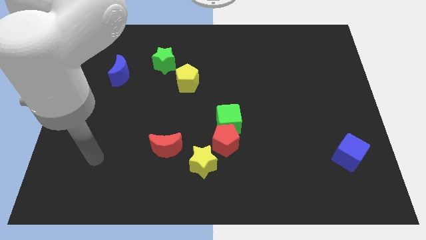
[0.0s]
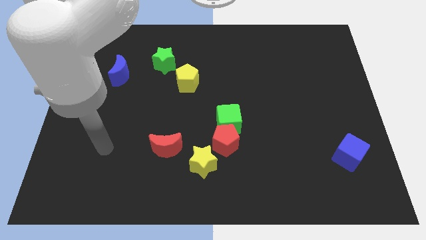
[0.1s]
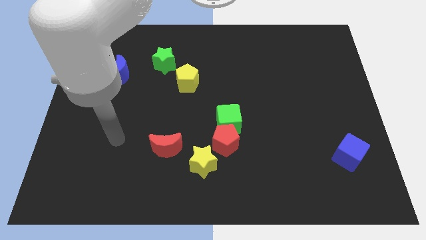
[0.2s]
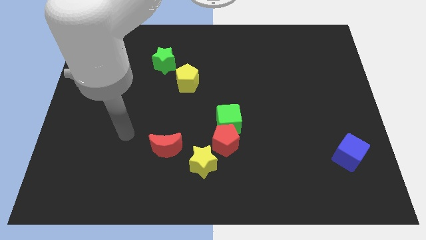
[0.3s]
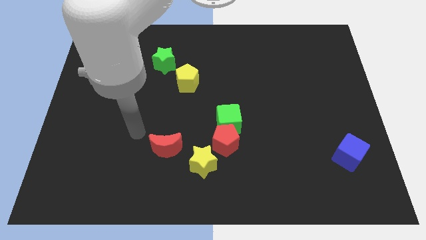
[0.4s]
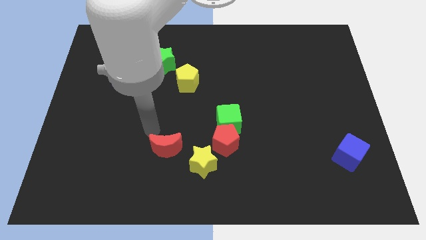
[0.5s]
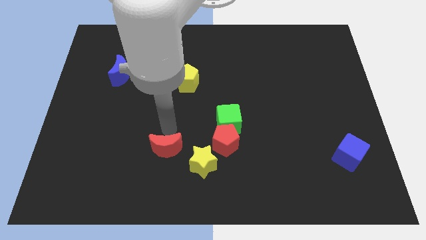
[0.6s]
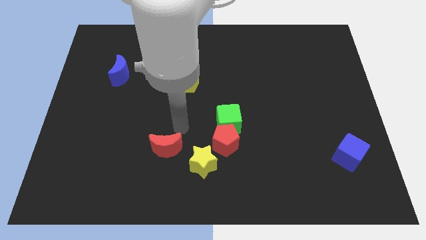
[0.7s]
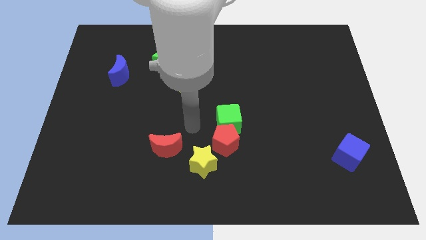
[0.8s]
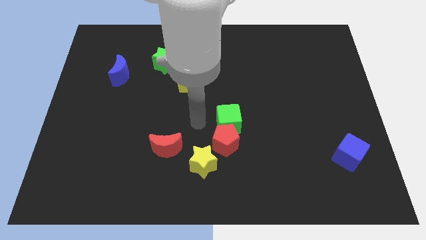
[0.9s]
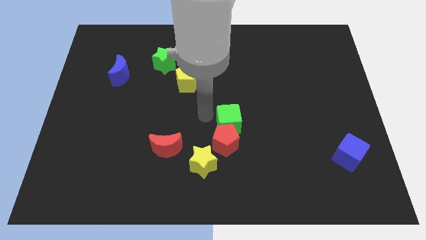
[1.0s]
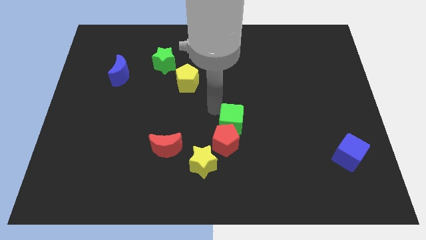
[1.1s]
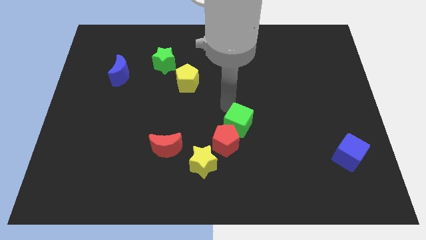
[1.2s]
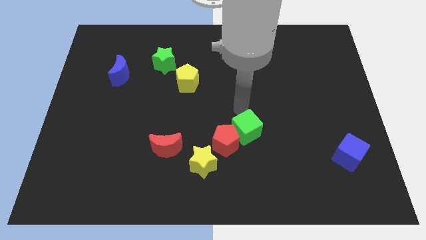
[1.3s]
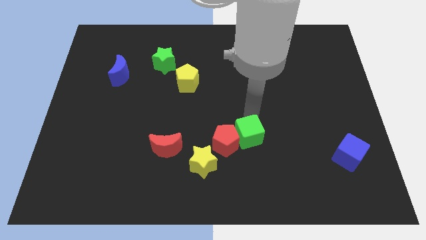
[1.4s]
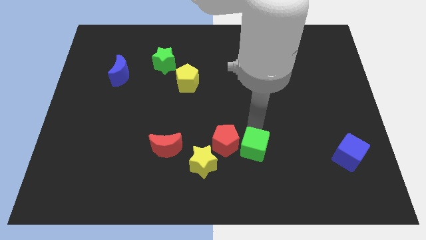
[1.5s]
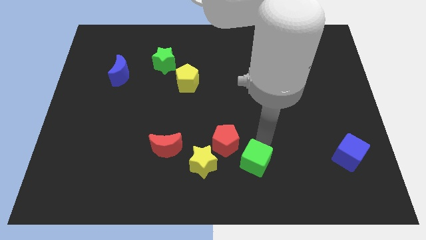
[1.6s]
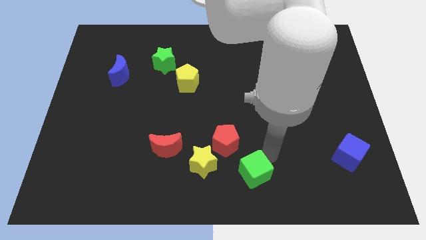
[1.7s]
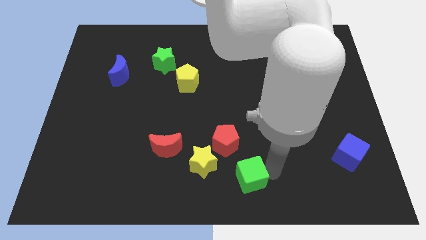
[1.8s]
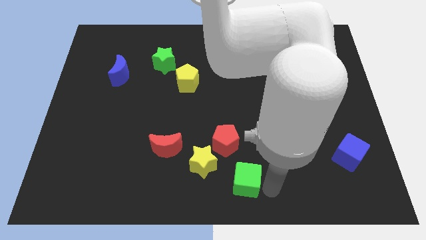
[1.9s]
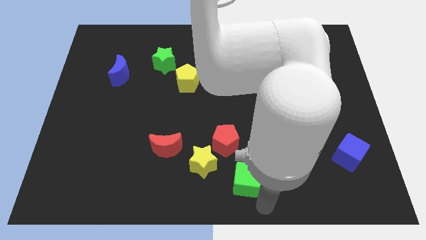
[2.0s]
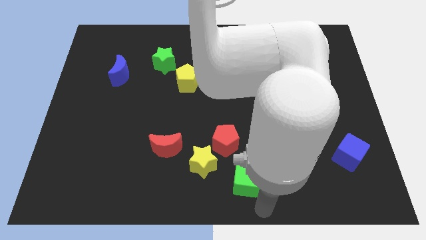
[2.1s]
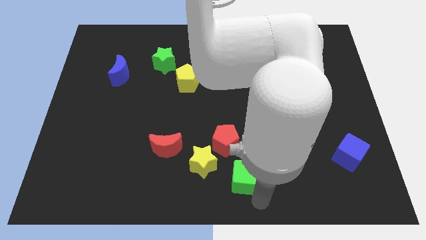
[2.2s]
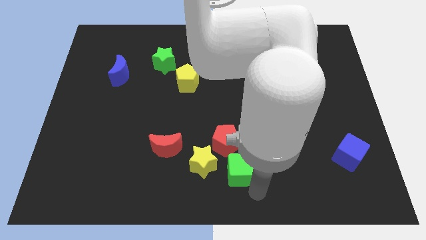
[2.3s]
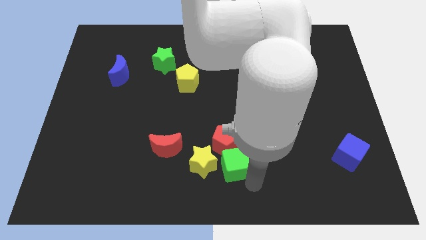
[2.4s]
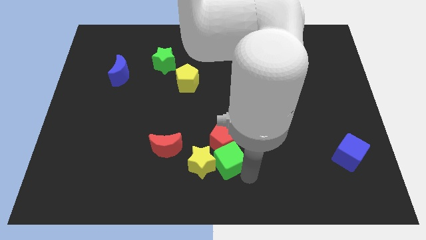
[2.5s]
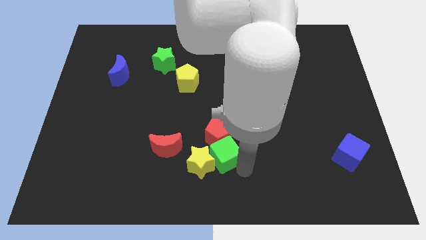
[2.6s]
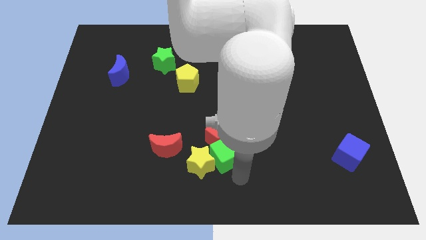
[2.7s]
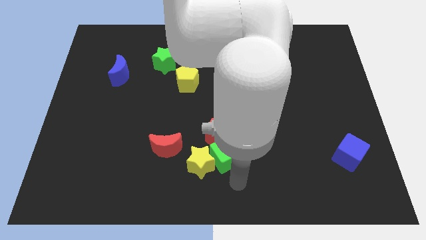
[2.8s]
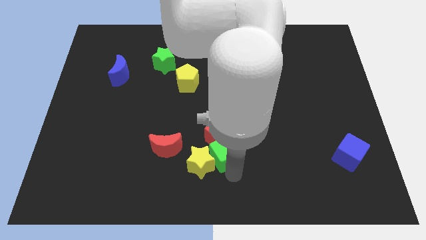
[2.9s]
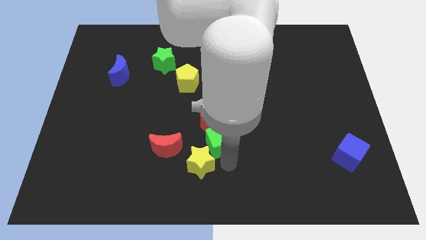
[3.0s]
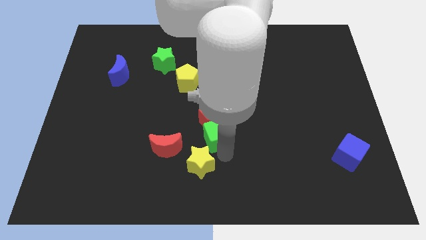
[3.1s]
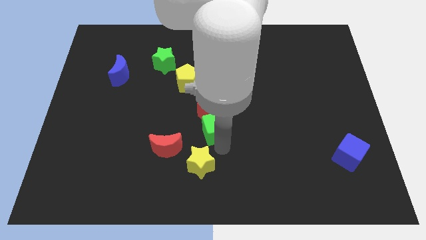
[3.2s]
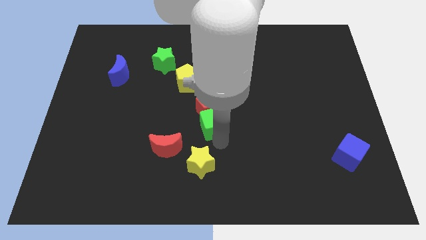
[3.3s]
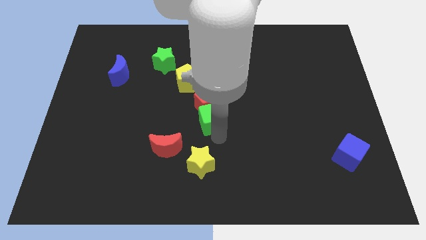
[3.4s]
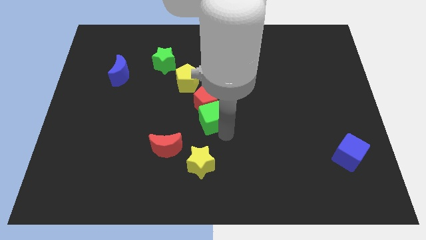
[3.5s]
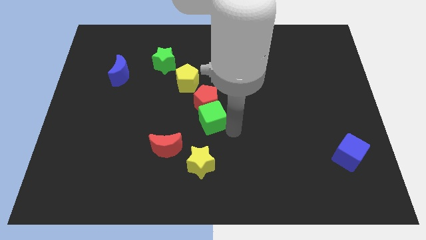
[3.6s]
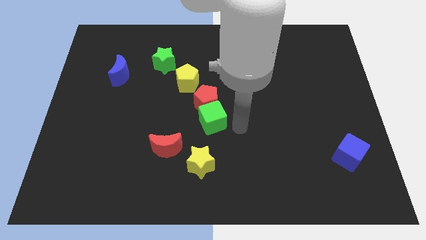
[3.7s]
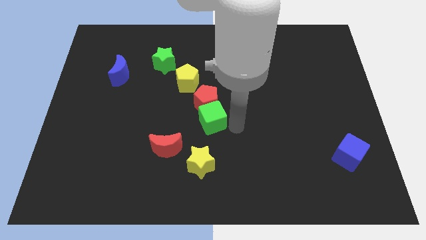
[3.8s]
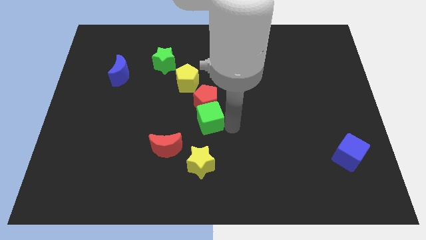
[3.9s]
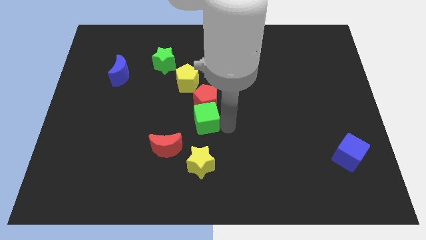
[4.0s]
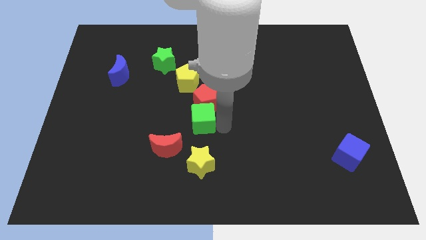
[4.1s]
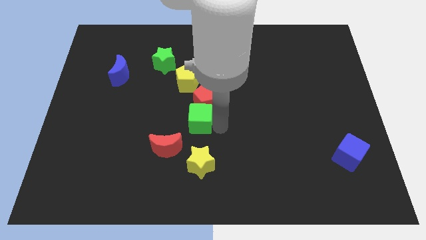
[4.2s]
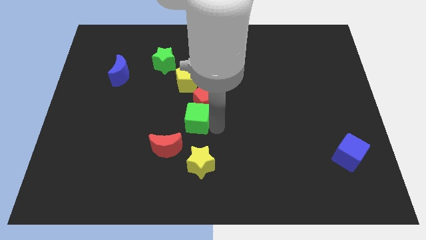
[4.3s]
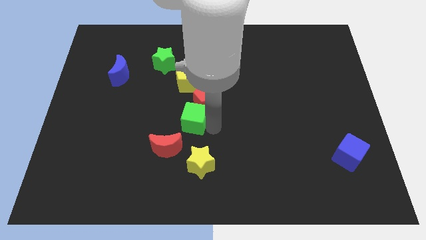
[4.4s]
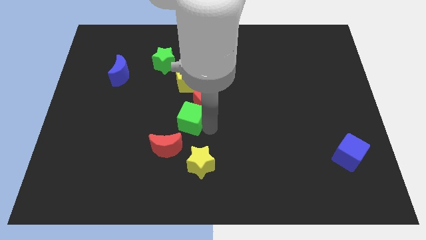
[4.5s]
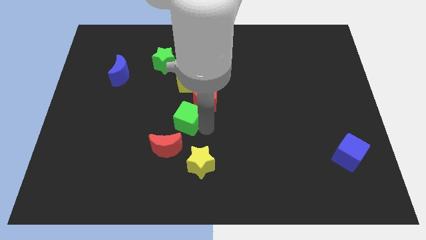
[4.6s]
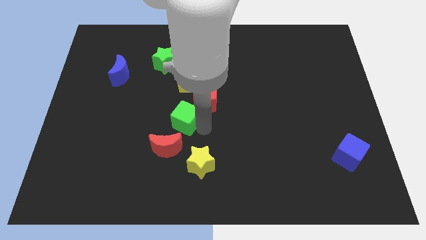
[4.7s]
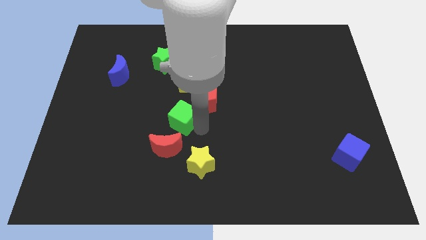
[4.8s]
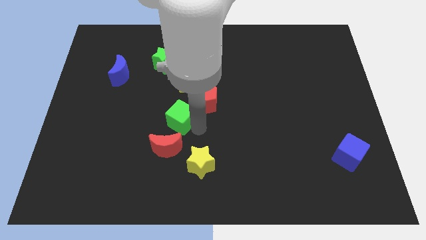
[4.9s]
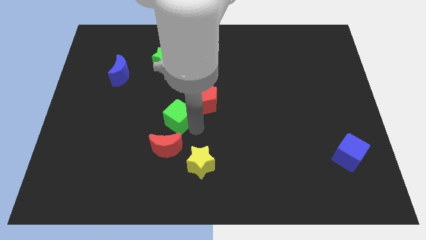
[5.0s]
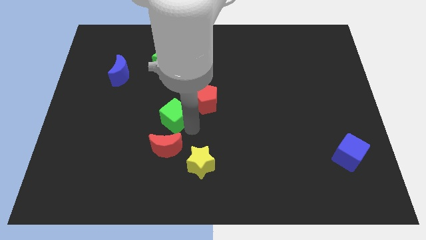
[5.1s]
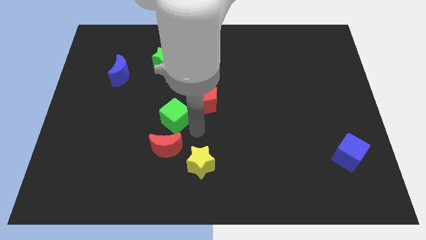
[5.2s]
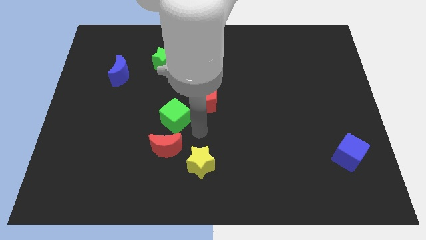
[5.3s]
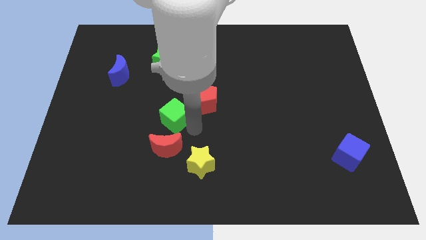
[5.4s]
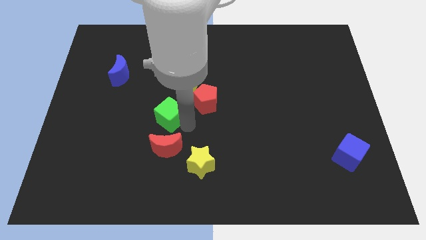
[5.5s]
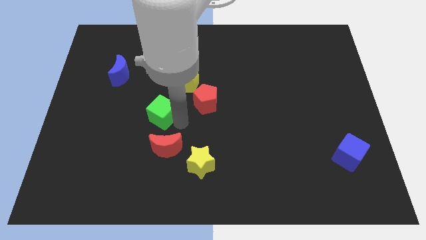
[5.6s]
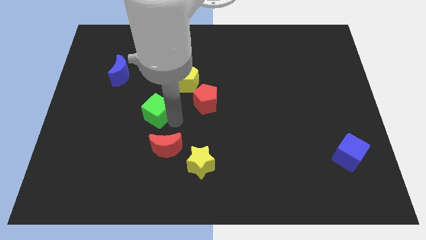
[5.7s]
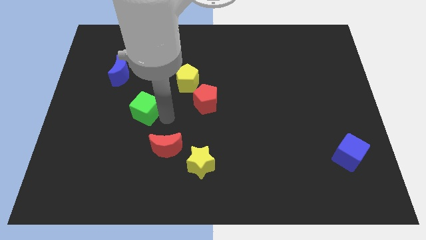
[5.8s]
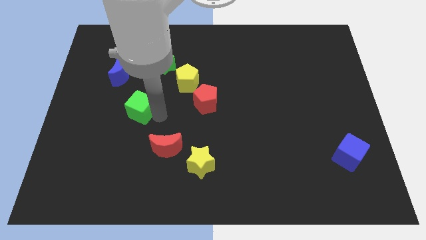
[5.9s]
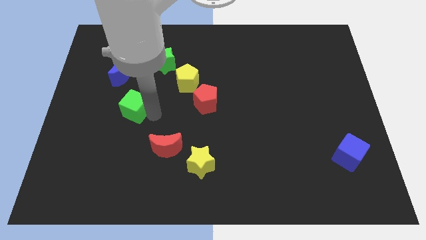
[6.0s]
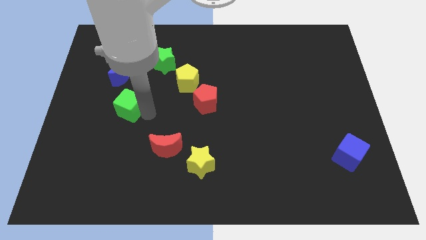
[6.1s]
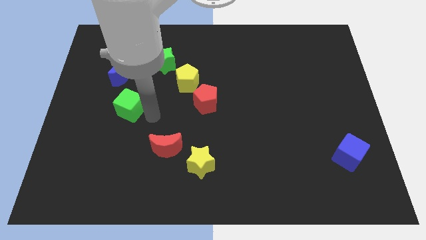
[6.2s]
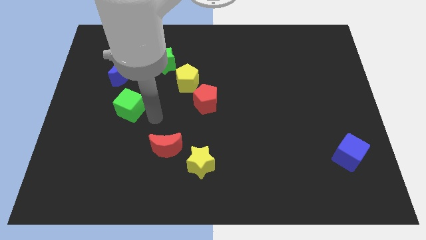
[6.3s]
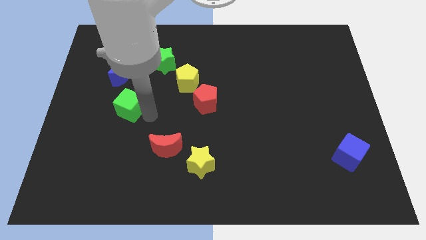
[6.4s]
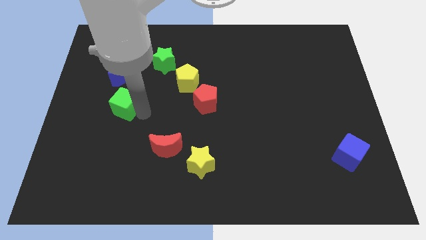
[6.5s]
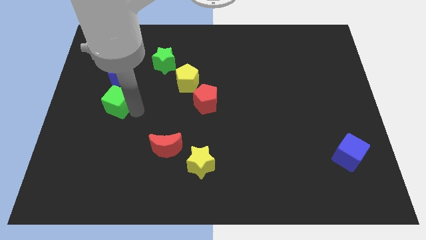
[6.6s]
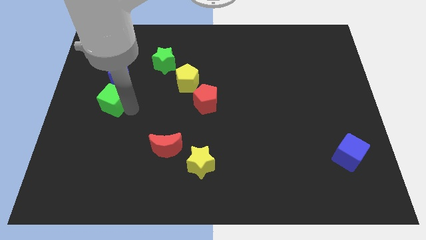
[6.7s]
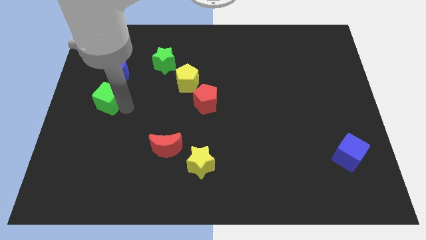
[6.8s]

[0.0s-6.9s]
move the green cube to the left side of the board
